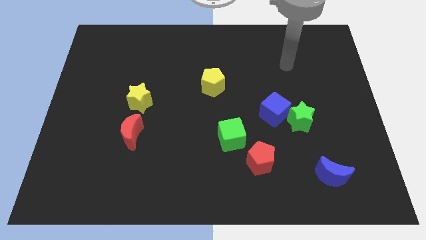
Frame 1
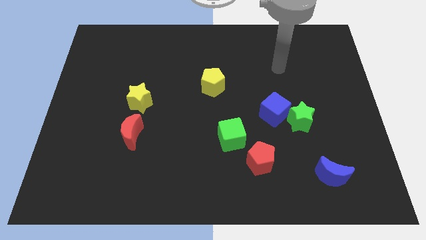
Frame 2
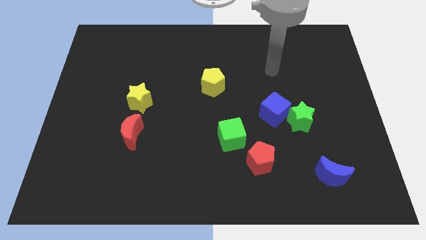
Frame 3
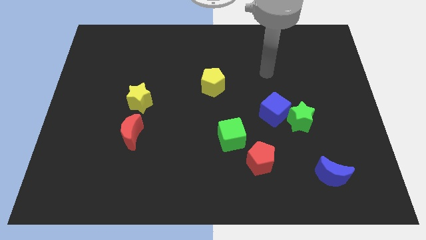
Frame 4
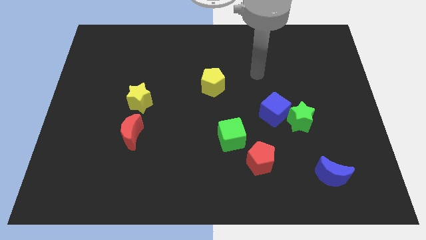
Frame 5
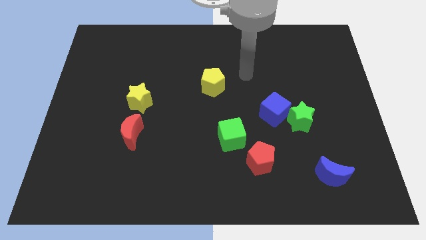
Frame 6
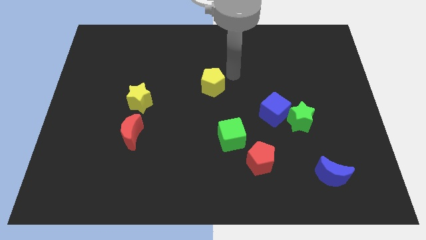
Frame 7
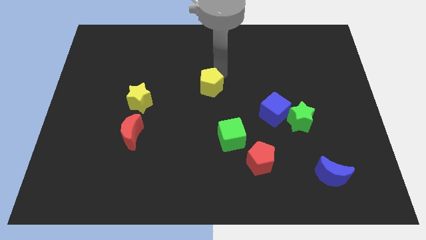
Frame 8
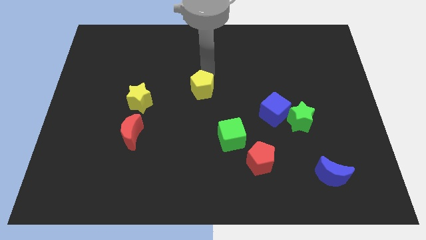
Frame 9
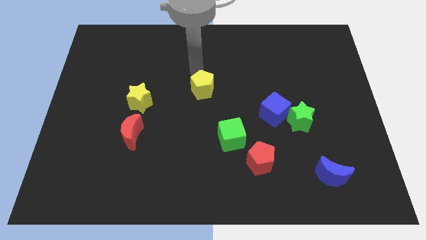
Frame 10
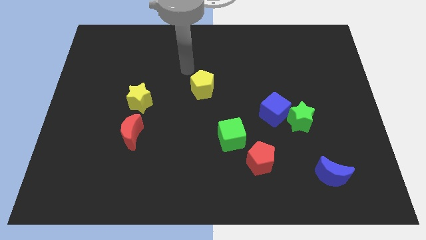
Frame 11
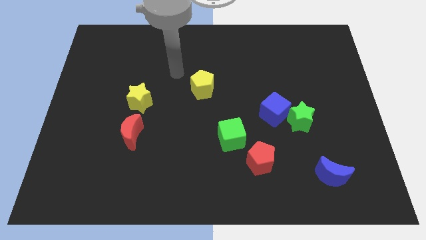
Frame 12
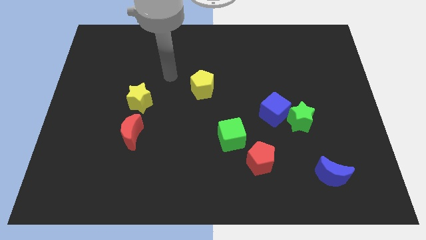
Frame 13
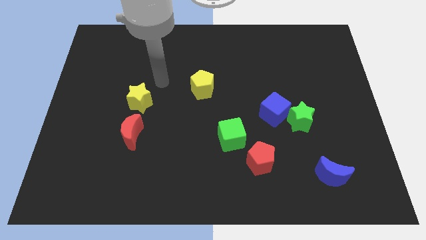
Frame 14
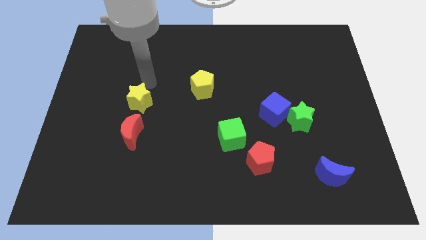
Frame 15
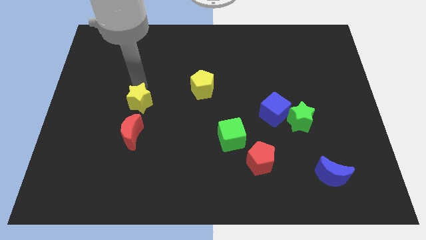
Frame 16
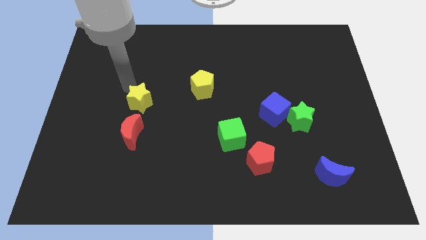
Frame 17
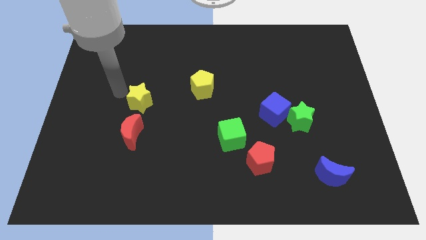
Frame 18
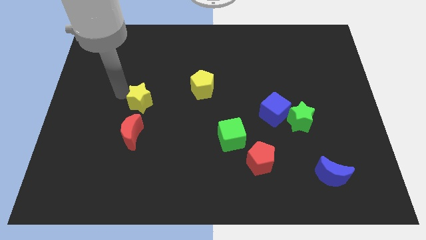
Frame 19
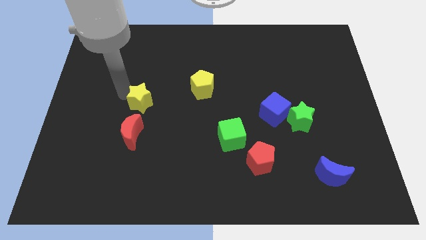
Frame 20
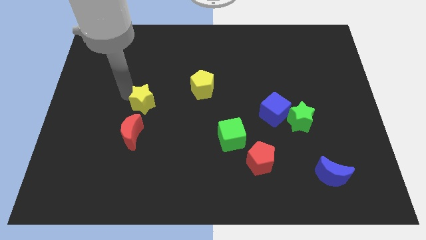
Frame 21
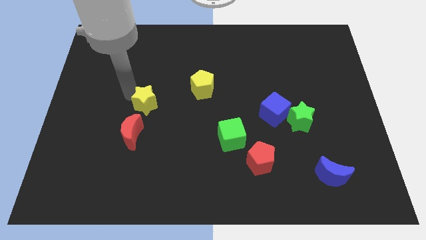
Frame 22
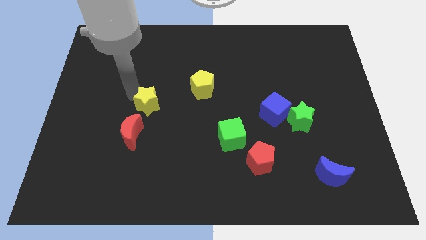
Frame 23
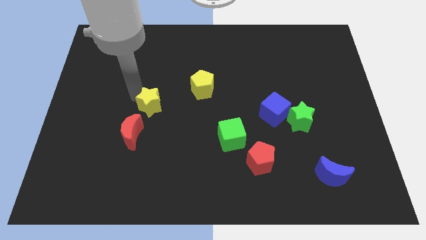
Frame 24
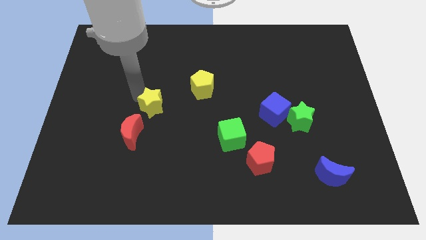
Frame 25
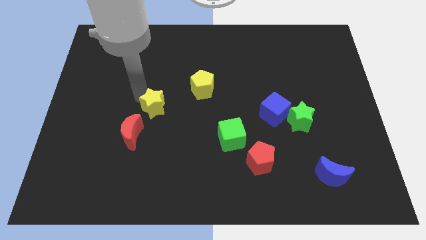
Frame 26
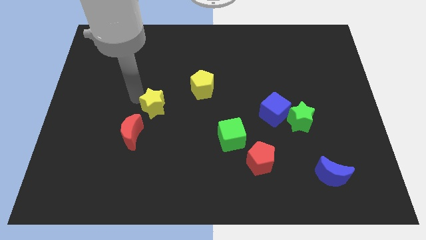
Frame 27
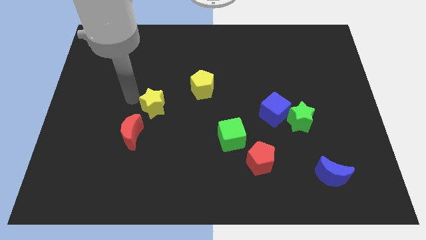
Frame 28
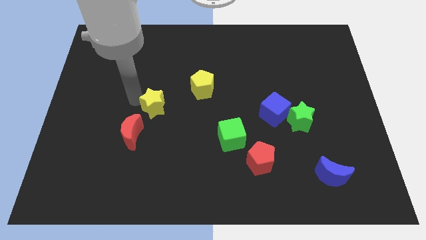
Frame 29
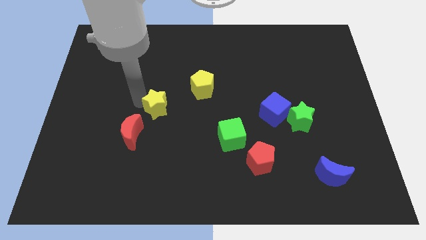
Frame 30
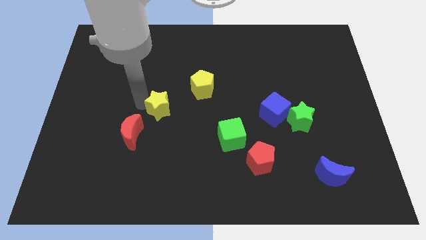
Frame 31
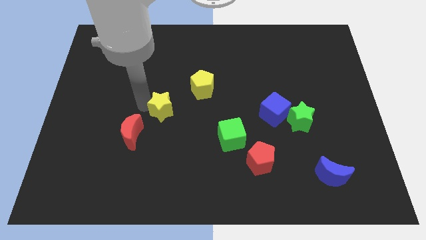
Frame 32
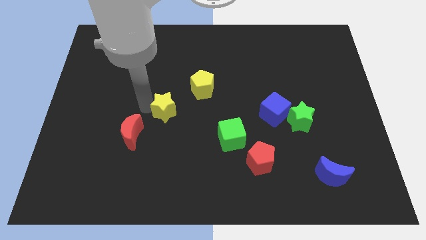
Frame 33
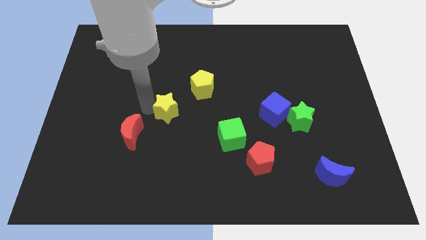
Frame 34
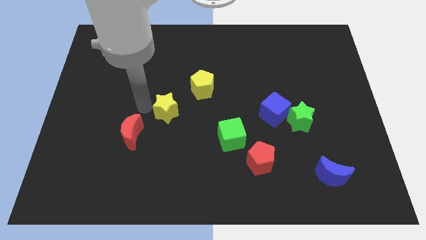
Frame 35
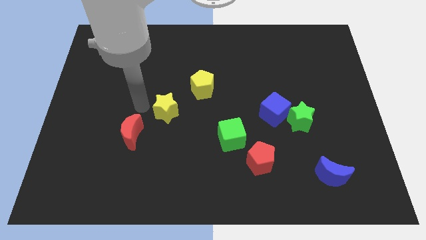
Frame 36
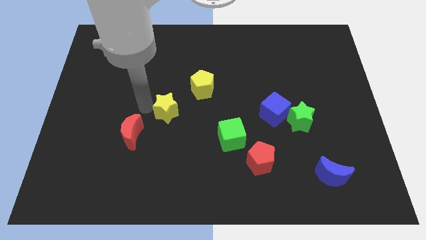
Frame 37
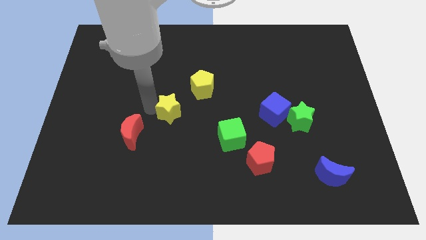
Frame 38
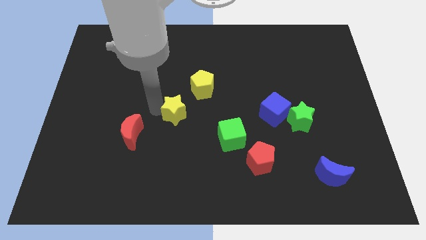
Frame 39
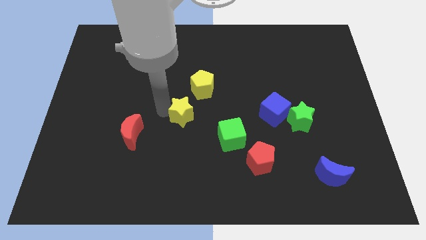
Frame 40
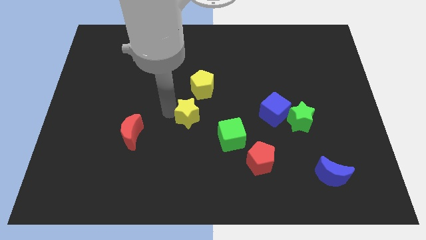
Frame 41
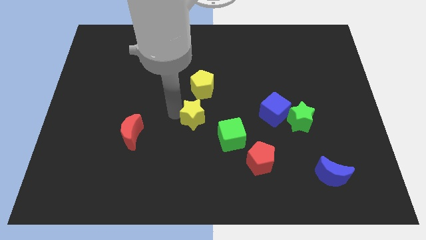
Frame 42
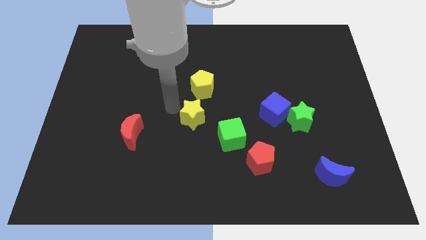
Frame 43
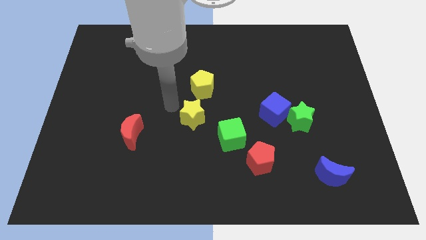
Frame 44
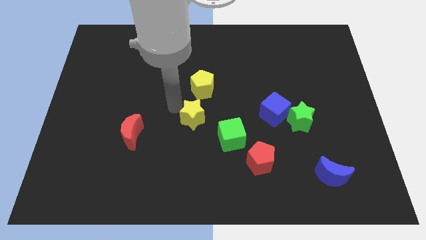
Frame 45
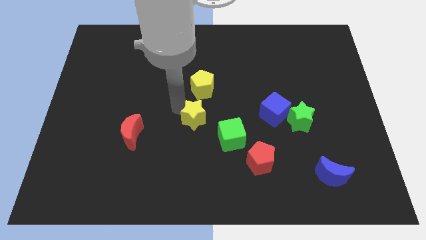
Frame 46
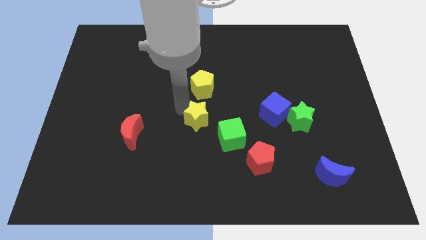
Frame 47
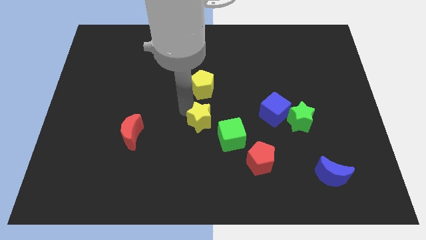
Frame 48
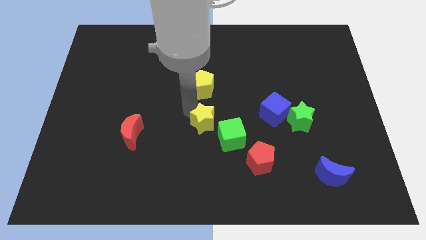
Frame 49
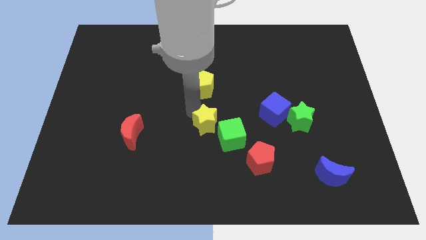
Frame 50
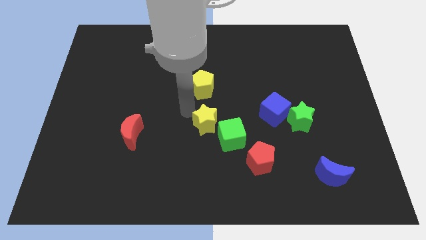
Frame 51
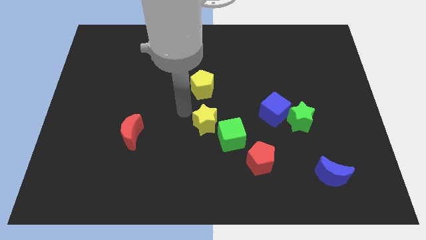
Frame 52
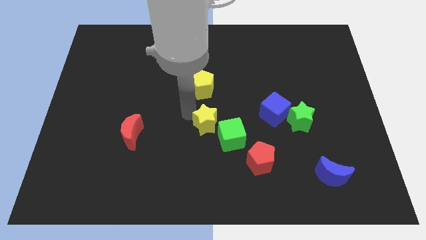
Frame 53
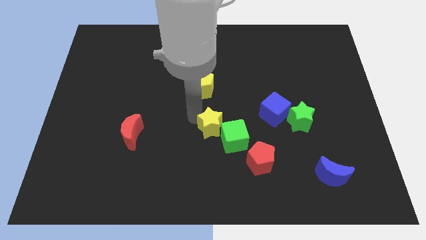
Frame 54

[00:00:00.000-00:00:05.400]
push the yellow star towards the green cube

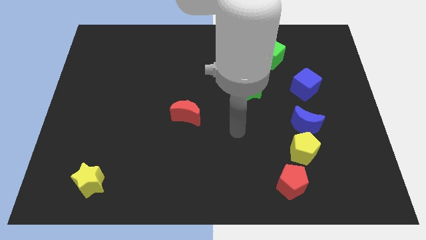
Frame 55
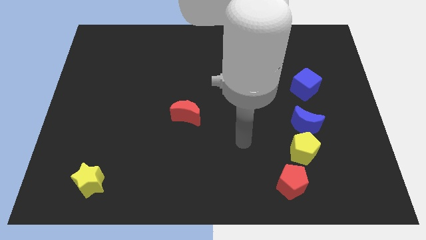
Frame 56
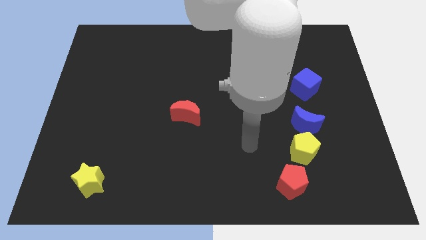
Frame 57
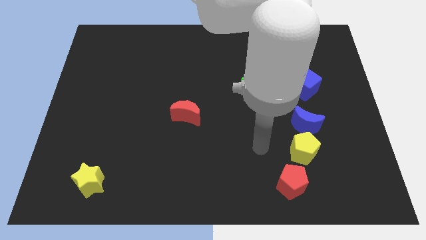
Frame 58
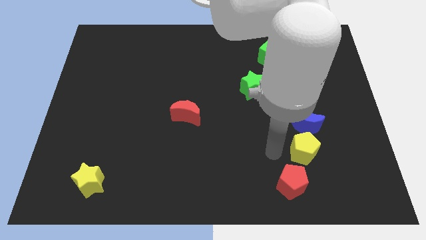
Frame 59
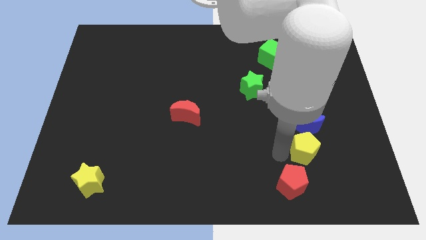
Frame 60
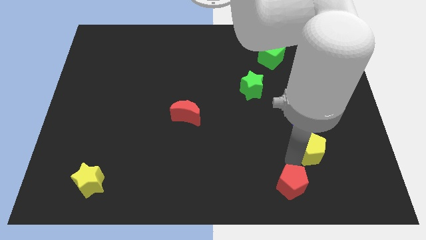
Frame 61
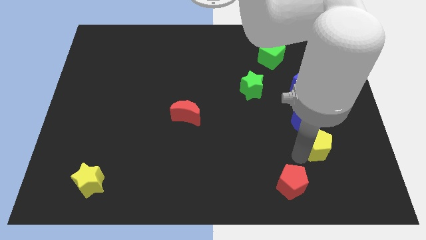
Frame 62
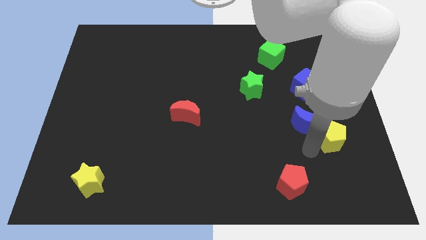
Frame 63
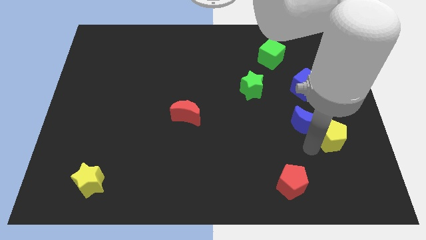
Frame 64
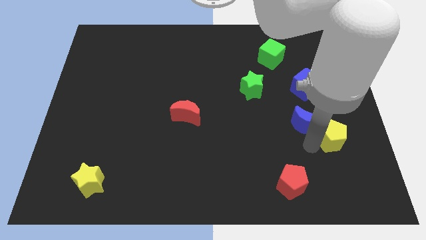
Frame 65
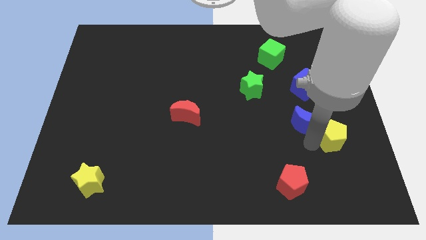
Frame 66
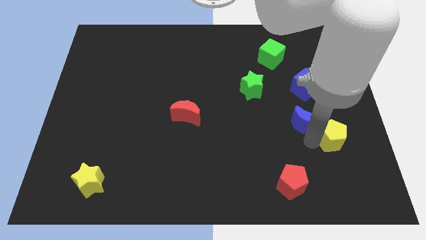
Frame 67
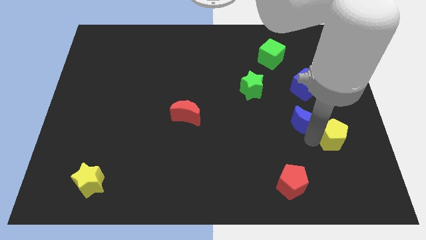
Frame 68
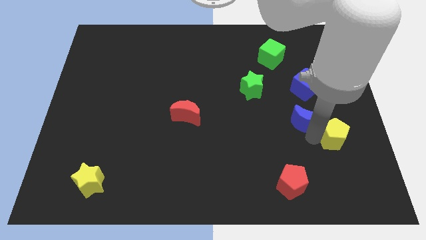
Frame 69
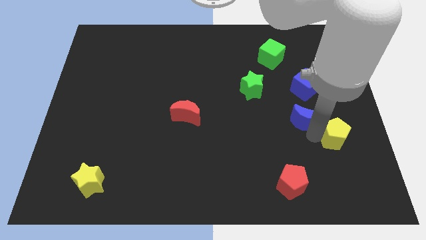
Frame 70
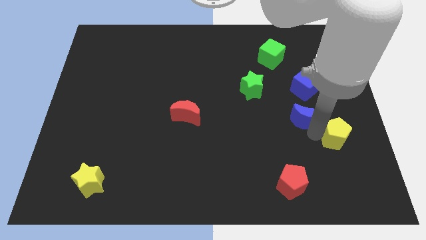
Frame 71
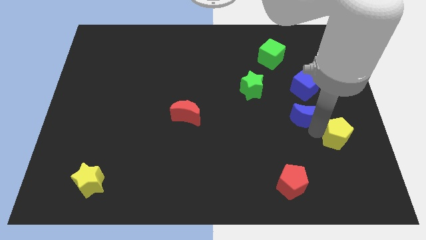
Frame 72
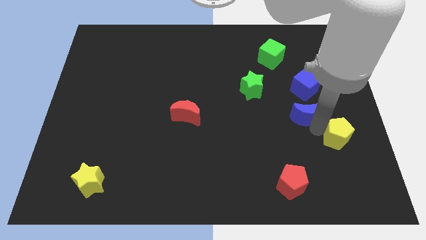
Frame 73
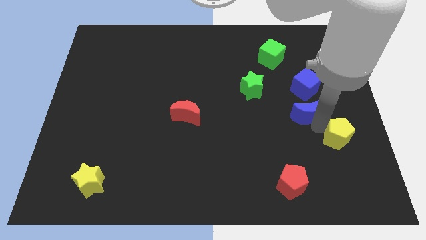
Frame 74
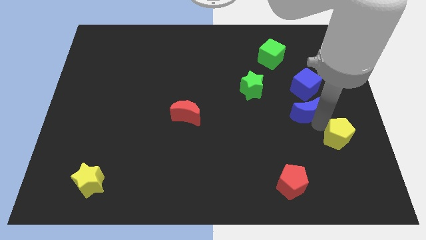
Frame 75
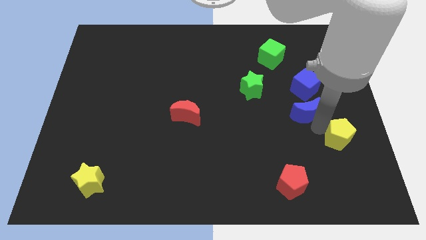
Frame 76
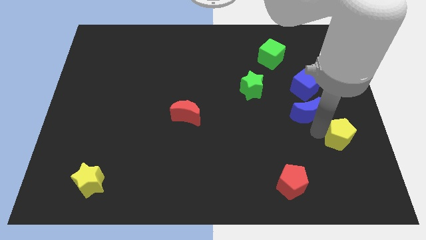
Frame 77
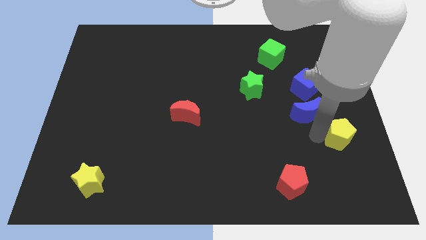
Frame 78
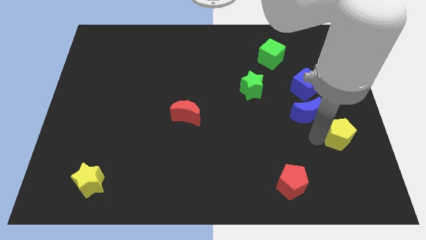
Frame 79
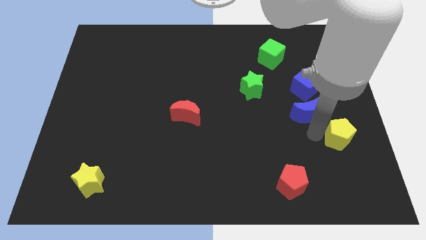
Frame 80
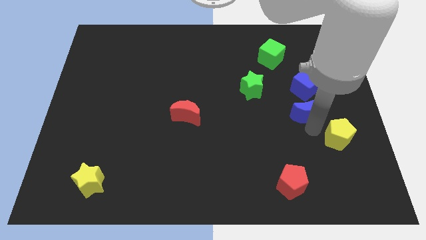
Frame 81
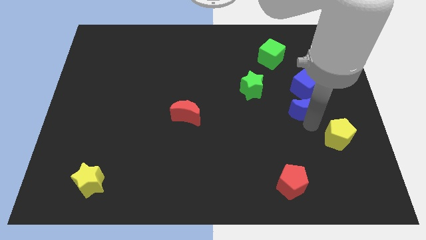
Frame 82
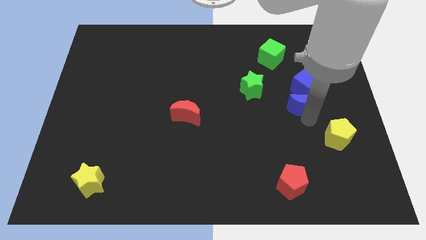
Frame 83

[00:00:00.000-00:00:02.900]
push the blue moon towards the blue cube
